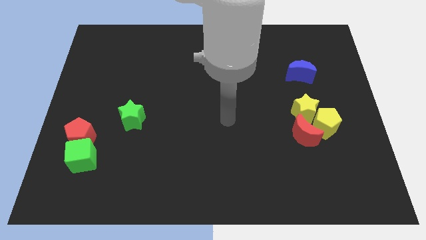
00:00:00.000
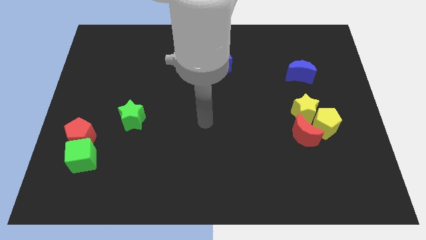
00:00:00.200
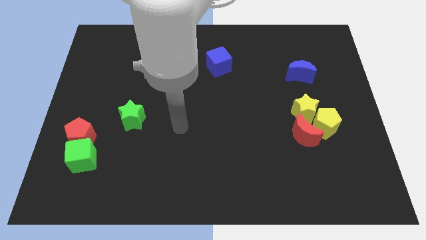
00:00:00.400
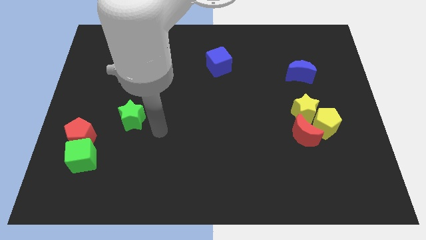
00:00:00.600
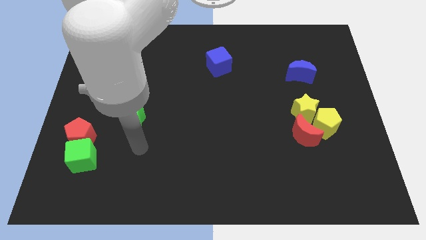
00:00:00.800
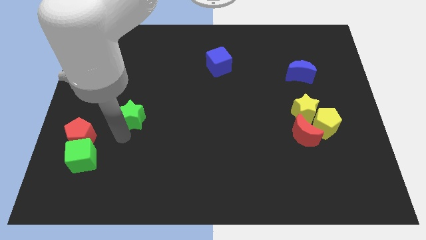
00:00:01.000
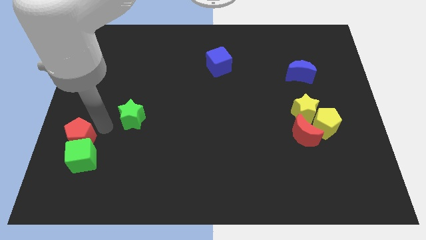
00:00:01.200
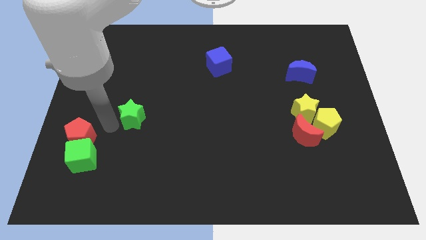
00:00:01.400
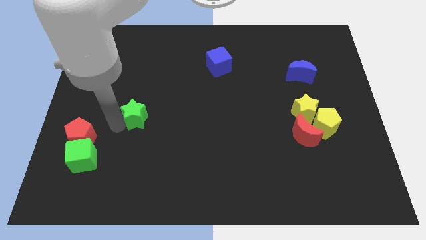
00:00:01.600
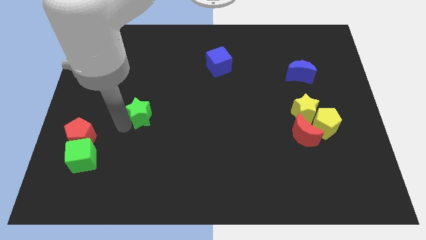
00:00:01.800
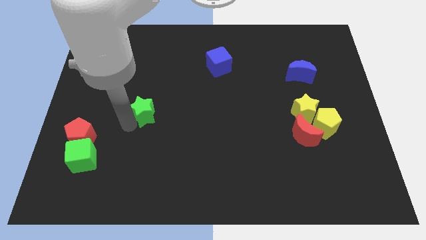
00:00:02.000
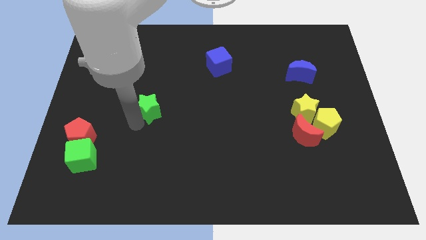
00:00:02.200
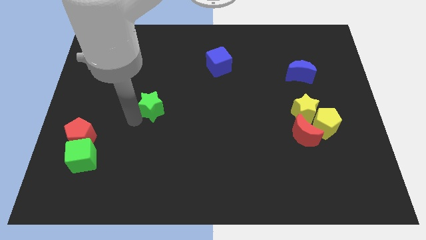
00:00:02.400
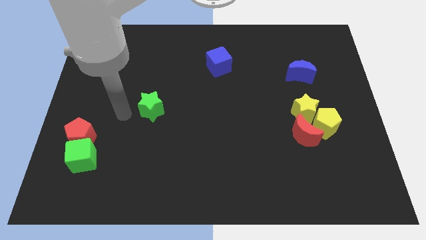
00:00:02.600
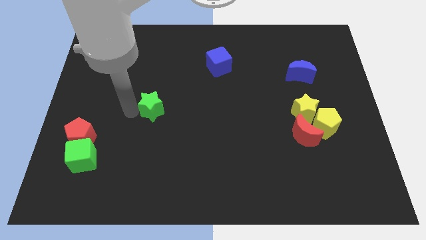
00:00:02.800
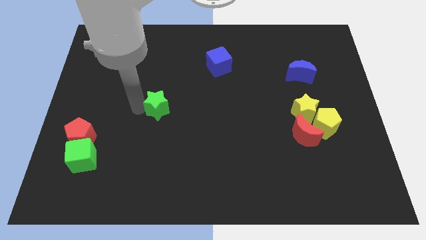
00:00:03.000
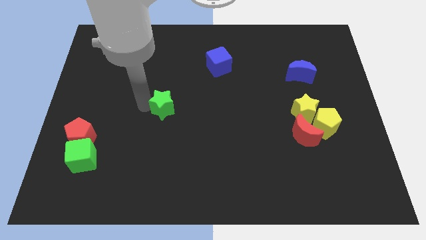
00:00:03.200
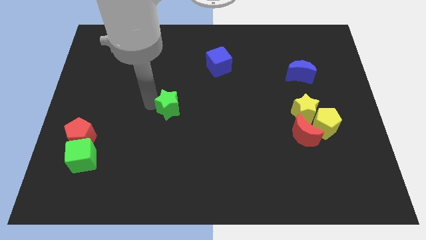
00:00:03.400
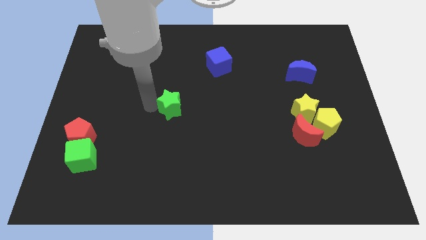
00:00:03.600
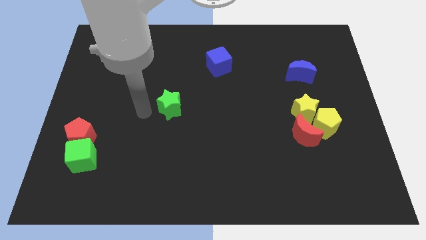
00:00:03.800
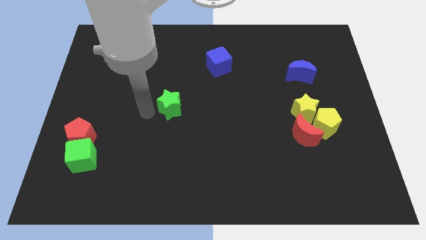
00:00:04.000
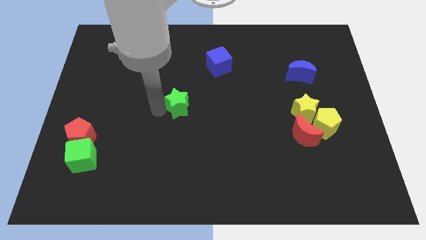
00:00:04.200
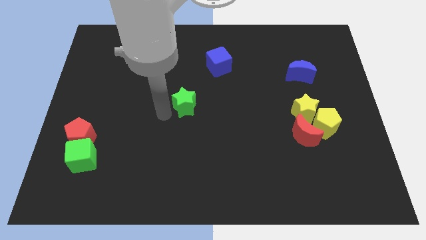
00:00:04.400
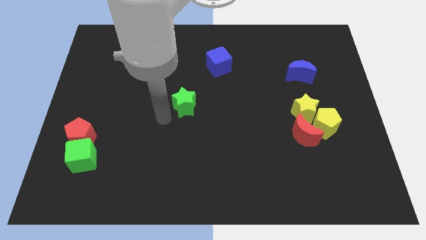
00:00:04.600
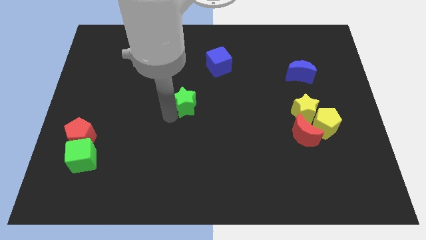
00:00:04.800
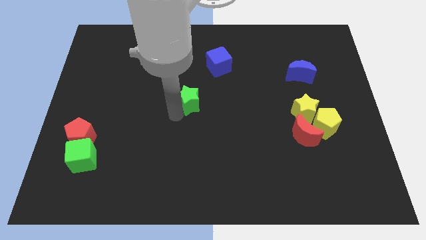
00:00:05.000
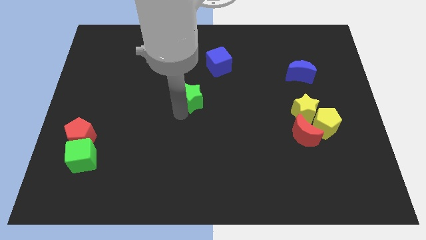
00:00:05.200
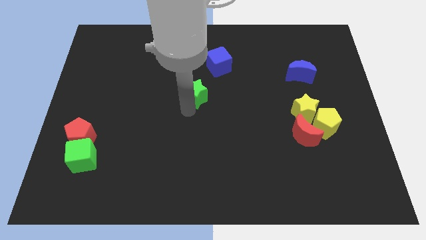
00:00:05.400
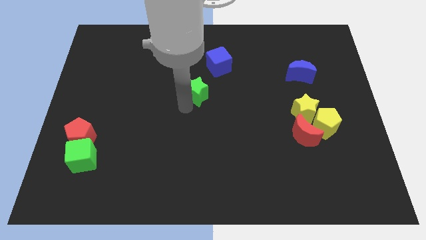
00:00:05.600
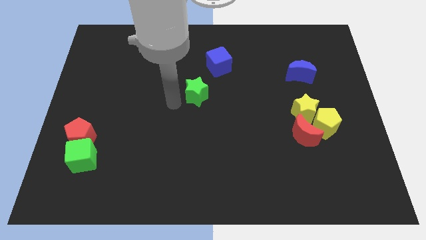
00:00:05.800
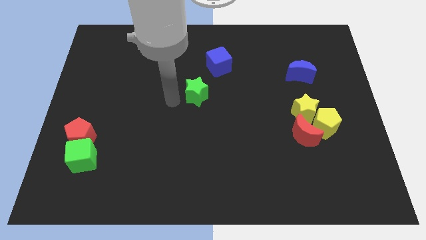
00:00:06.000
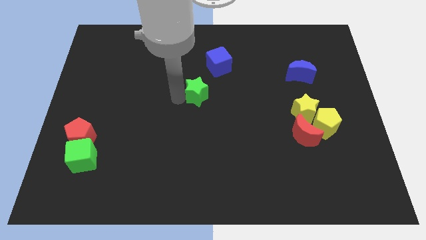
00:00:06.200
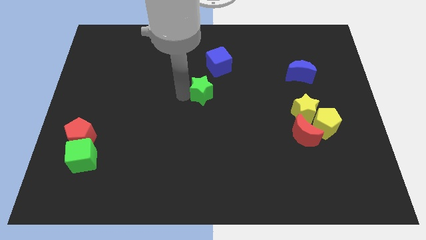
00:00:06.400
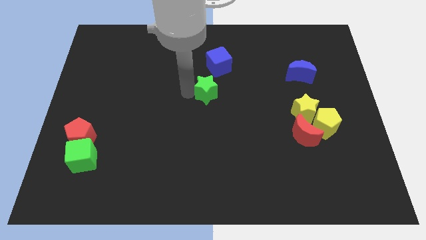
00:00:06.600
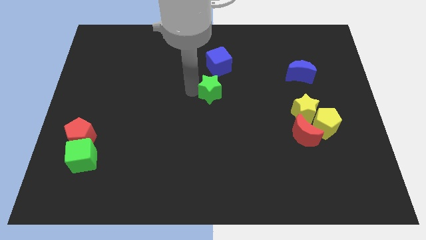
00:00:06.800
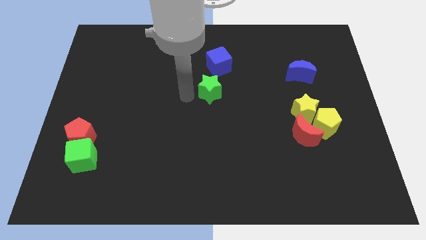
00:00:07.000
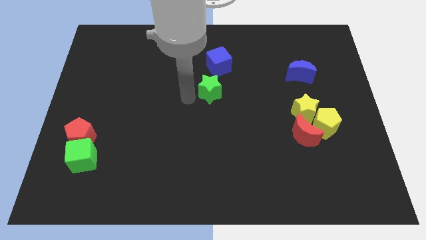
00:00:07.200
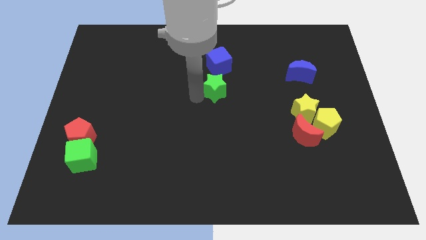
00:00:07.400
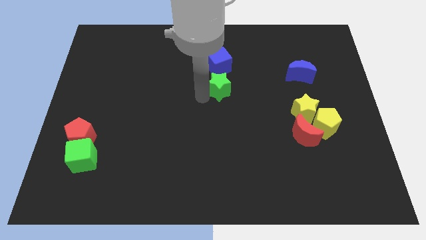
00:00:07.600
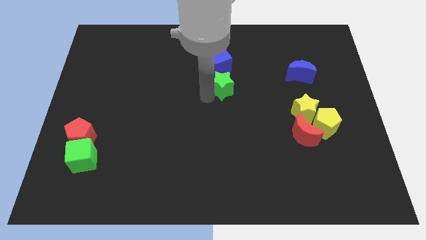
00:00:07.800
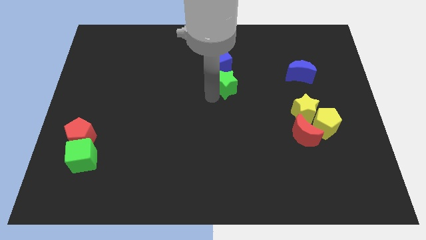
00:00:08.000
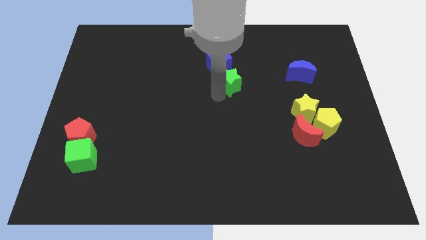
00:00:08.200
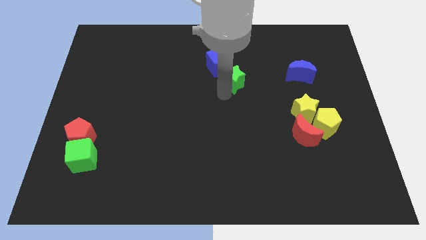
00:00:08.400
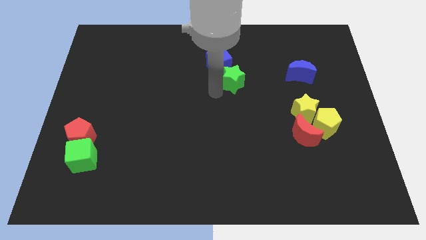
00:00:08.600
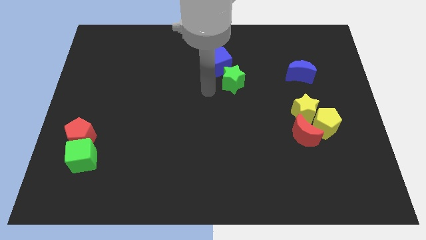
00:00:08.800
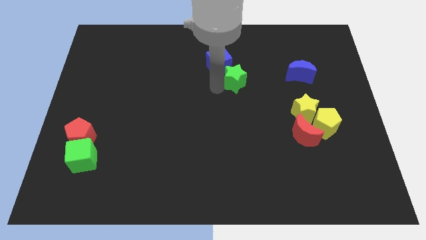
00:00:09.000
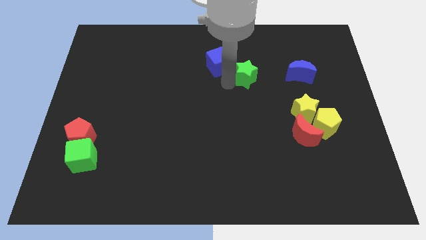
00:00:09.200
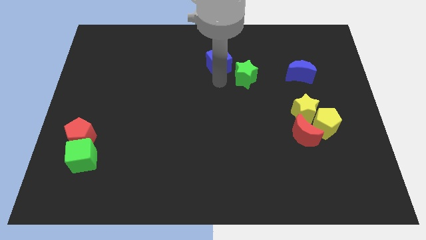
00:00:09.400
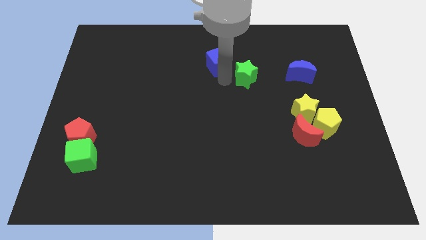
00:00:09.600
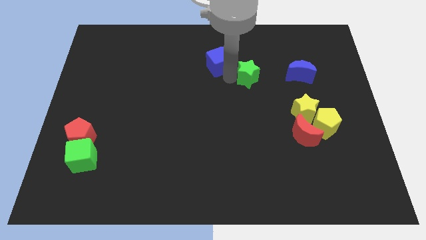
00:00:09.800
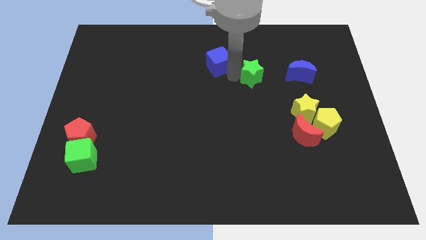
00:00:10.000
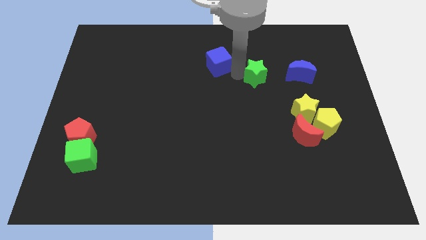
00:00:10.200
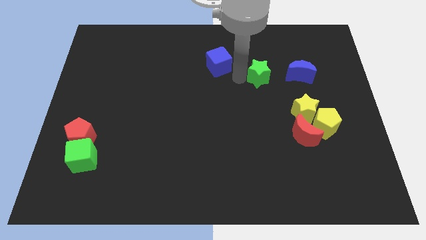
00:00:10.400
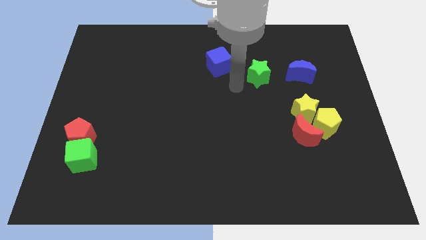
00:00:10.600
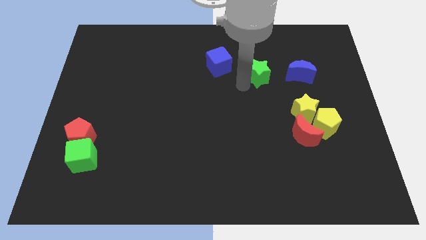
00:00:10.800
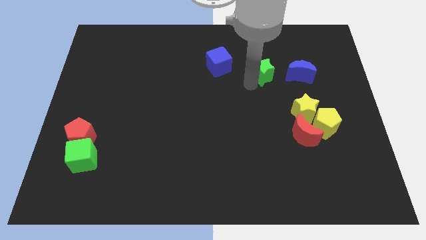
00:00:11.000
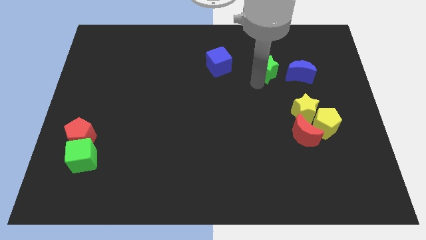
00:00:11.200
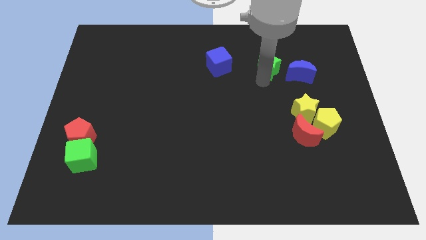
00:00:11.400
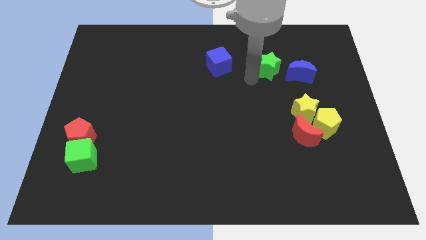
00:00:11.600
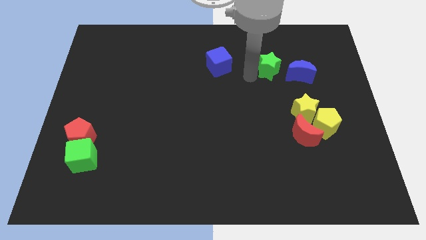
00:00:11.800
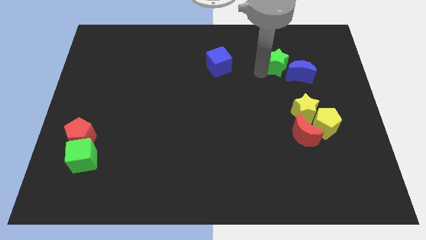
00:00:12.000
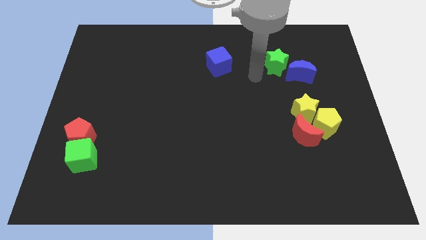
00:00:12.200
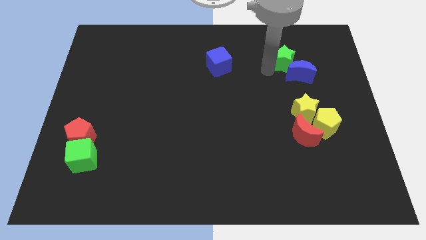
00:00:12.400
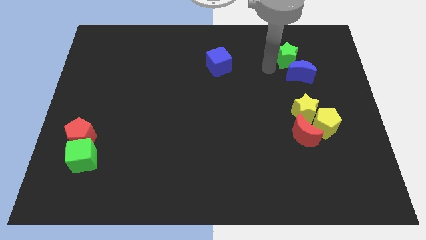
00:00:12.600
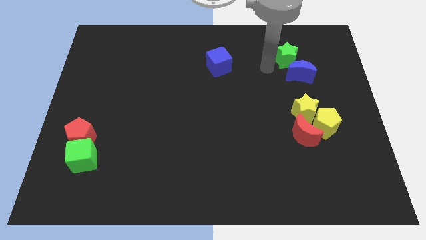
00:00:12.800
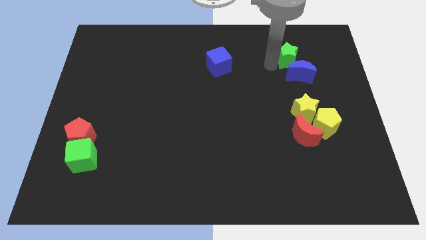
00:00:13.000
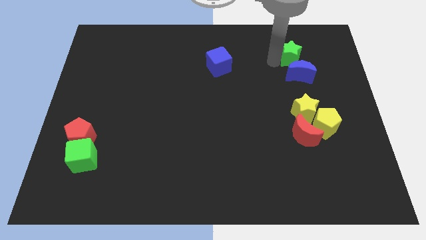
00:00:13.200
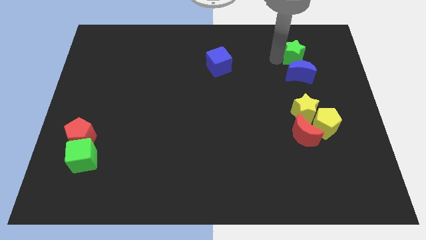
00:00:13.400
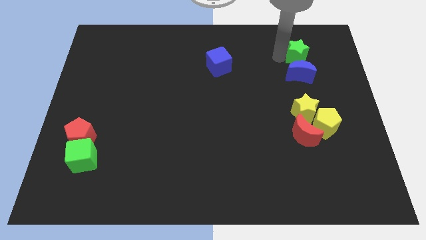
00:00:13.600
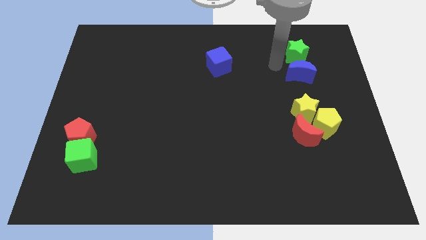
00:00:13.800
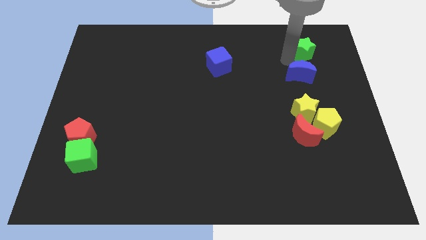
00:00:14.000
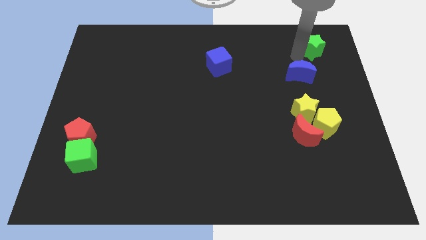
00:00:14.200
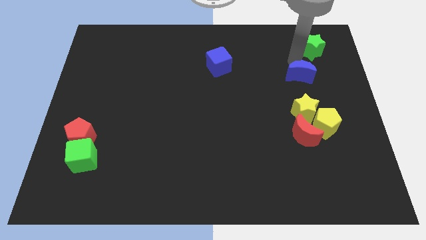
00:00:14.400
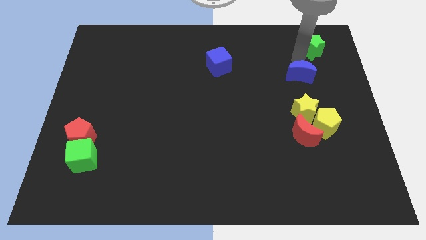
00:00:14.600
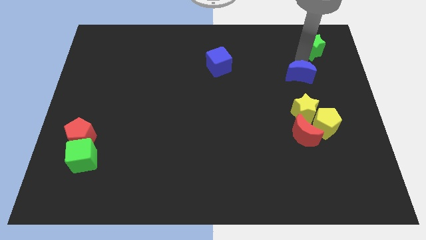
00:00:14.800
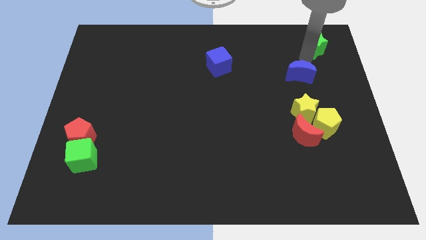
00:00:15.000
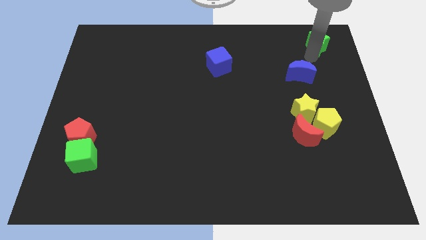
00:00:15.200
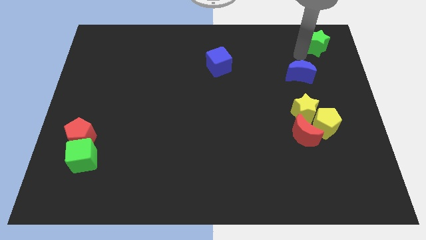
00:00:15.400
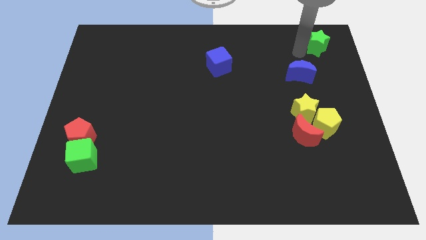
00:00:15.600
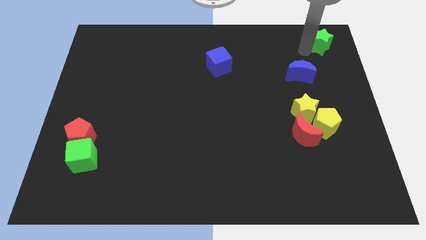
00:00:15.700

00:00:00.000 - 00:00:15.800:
put the green star to the top right corner
